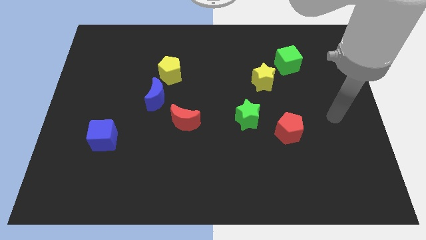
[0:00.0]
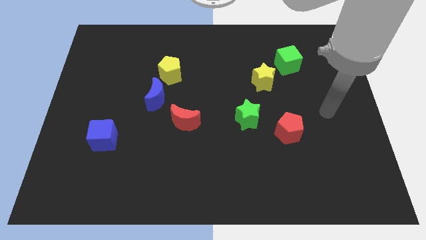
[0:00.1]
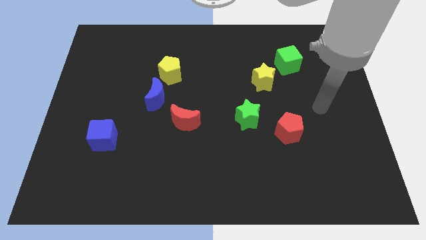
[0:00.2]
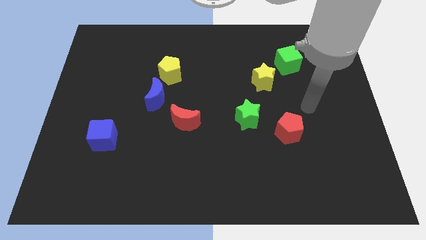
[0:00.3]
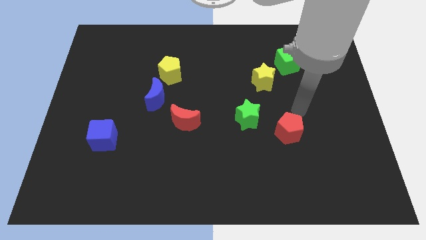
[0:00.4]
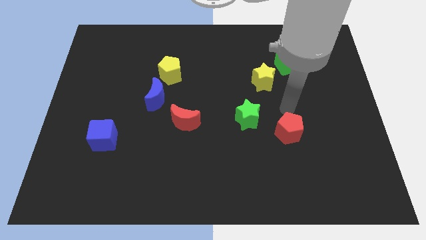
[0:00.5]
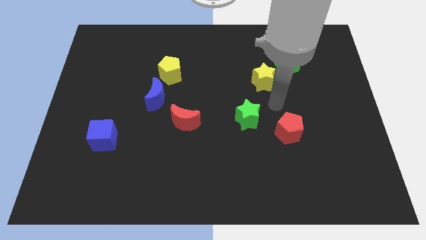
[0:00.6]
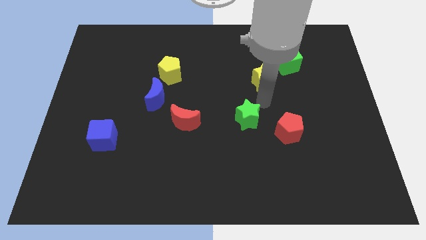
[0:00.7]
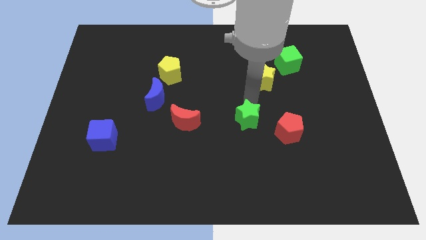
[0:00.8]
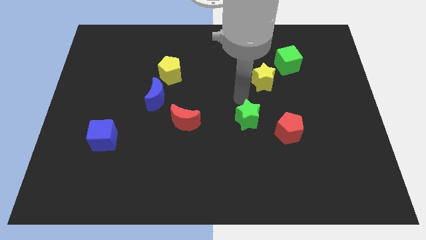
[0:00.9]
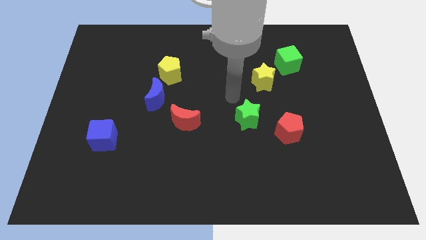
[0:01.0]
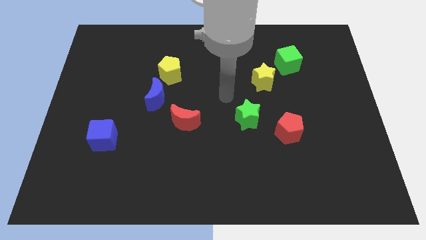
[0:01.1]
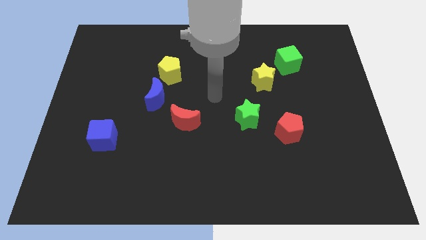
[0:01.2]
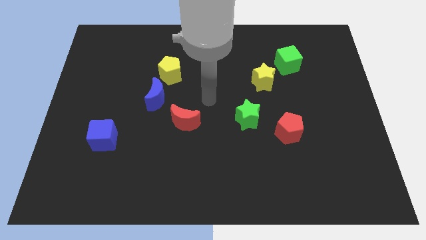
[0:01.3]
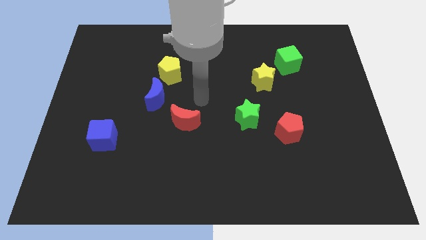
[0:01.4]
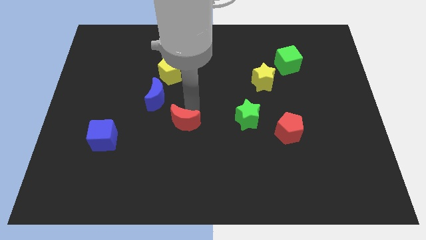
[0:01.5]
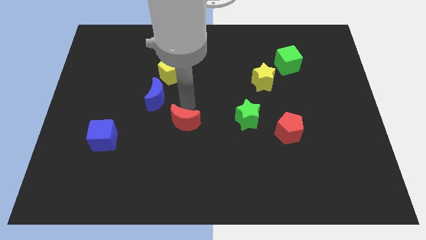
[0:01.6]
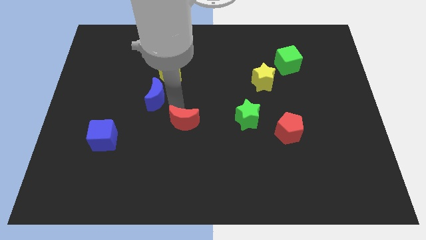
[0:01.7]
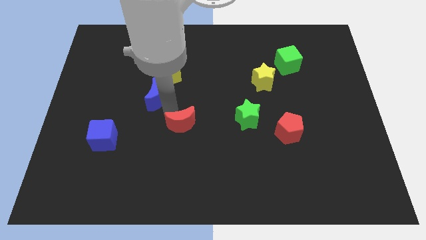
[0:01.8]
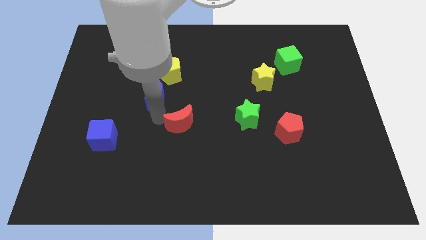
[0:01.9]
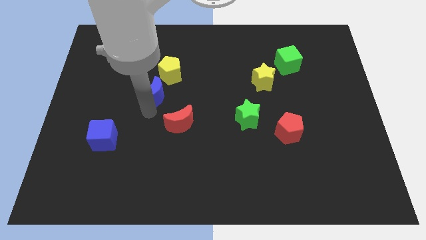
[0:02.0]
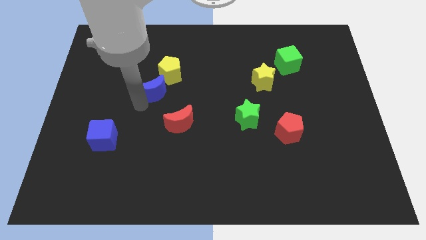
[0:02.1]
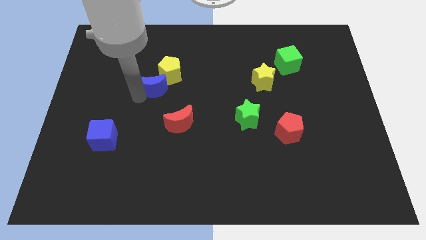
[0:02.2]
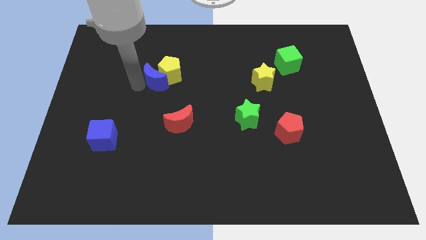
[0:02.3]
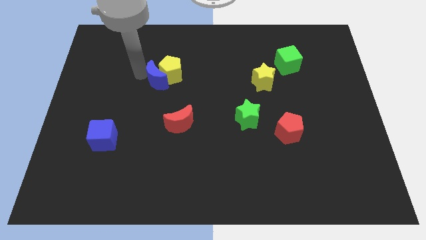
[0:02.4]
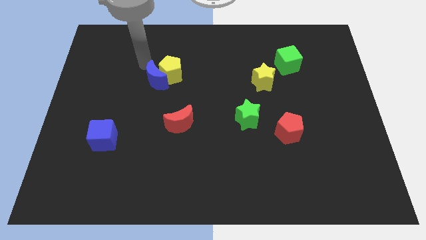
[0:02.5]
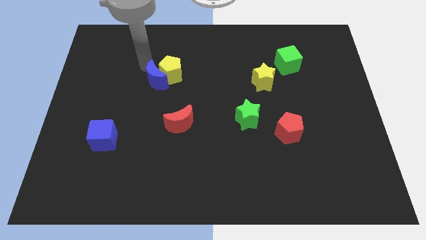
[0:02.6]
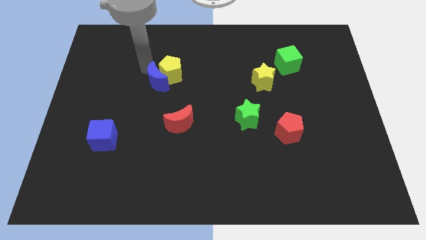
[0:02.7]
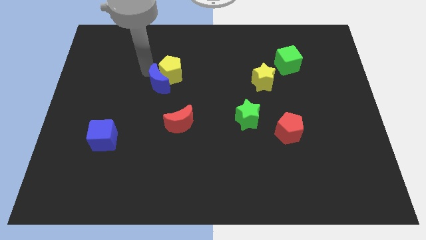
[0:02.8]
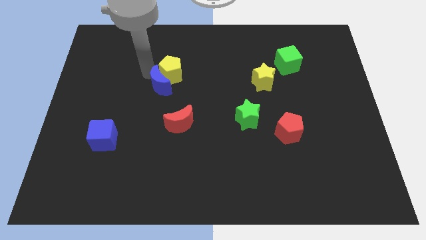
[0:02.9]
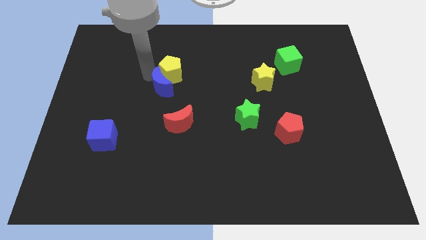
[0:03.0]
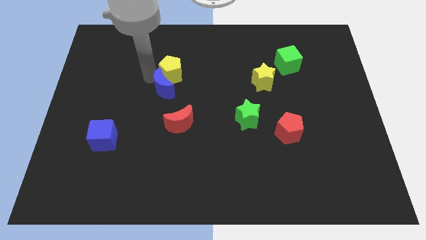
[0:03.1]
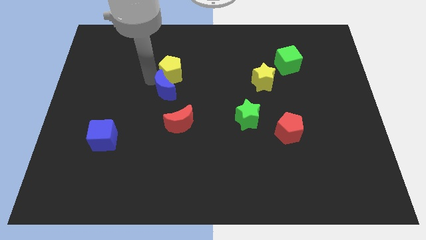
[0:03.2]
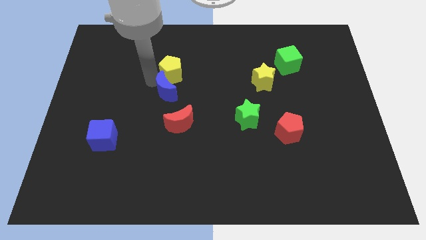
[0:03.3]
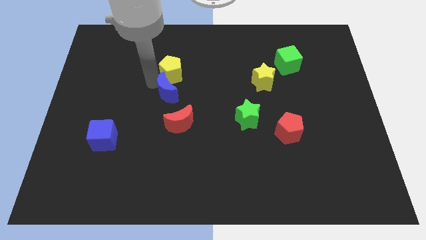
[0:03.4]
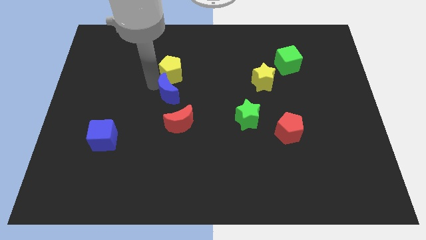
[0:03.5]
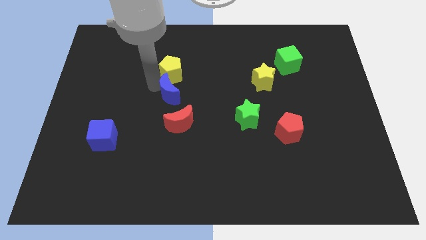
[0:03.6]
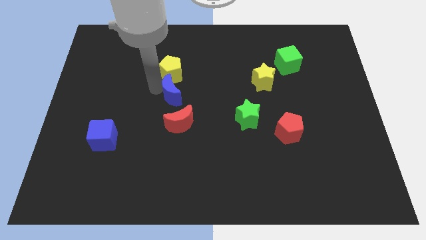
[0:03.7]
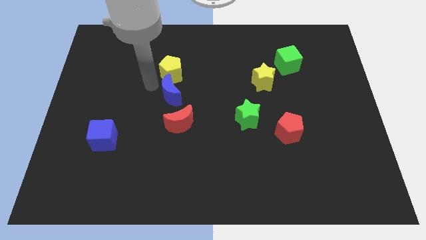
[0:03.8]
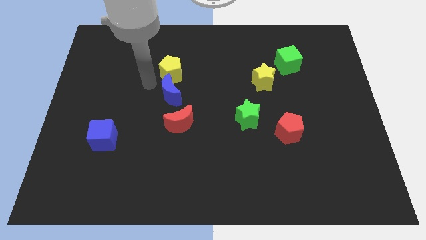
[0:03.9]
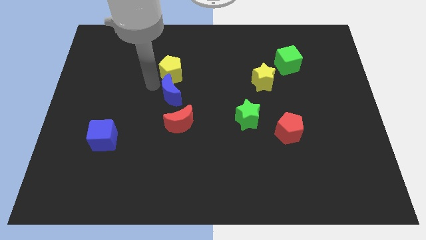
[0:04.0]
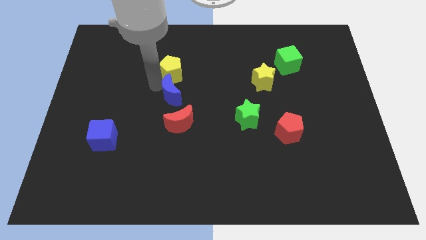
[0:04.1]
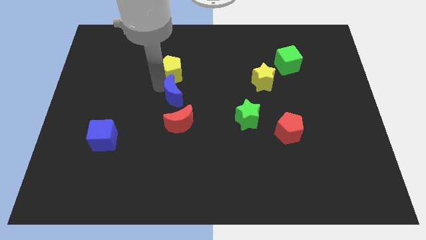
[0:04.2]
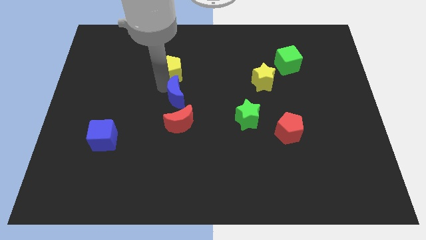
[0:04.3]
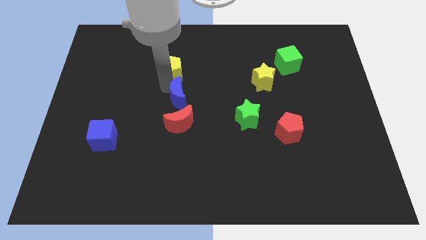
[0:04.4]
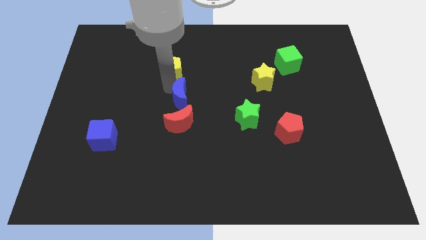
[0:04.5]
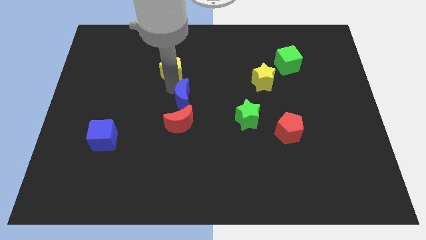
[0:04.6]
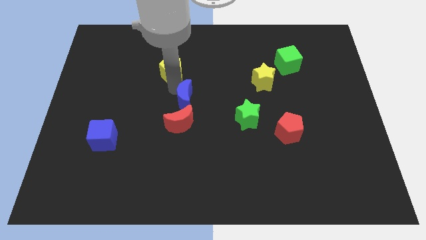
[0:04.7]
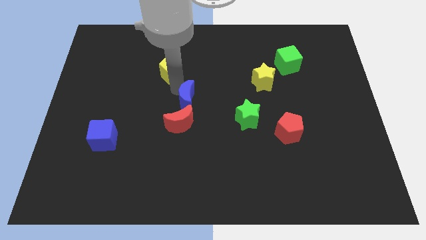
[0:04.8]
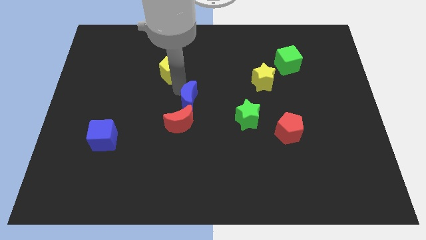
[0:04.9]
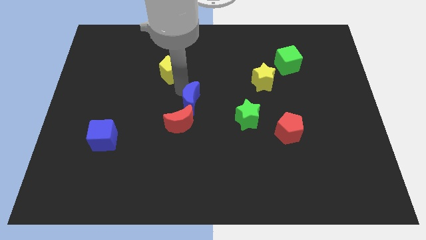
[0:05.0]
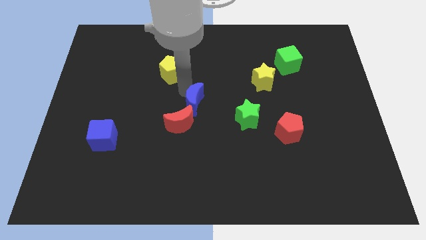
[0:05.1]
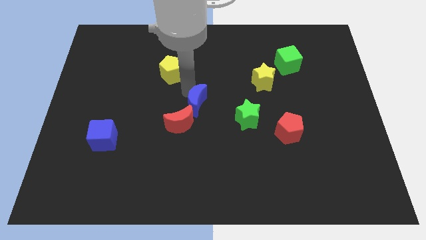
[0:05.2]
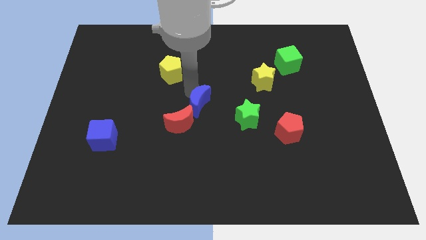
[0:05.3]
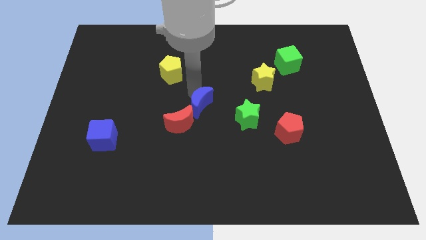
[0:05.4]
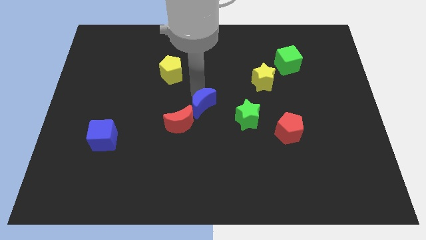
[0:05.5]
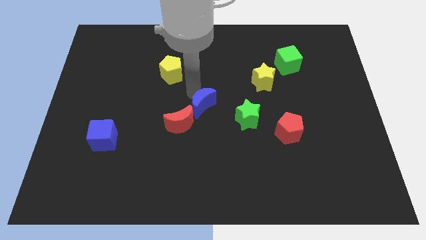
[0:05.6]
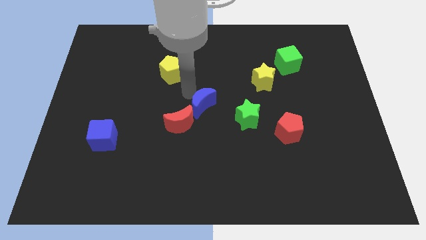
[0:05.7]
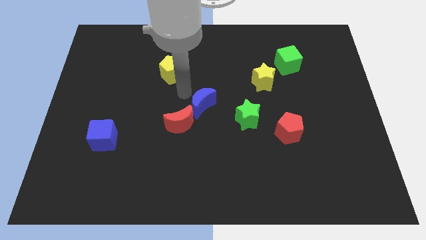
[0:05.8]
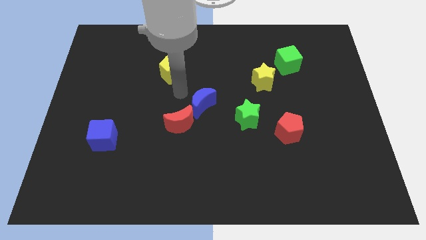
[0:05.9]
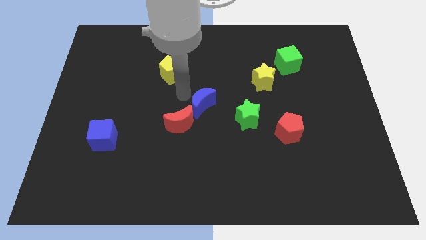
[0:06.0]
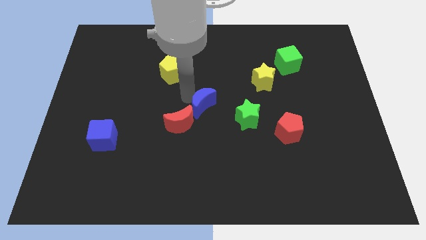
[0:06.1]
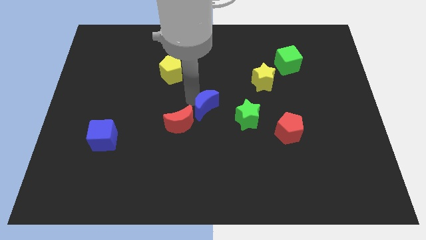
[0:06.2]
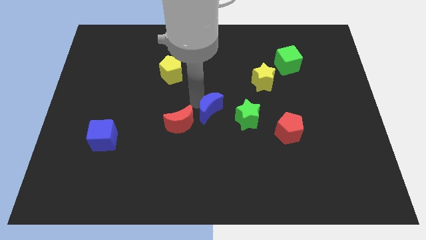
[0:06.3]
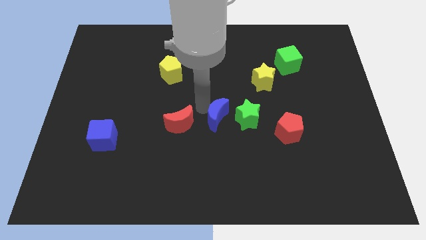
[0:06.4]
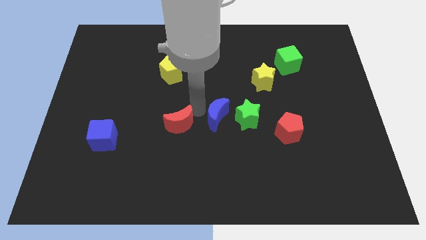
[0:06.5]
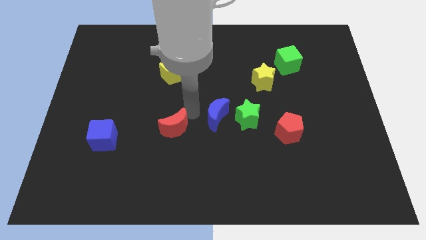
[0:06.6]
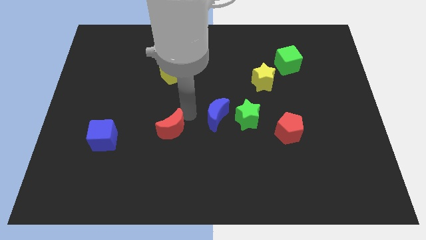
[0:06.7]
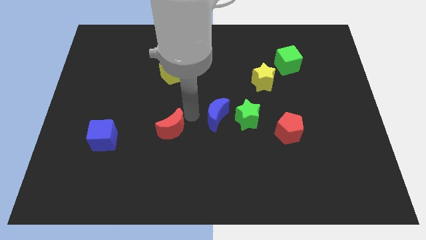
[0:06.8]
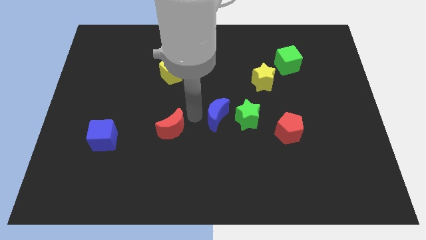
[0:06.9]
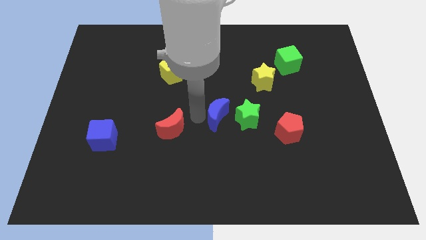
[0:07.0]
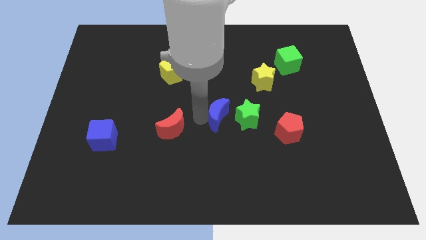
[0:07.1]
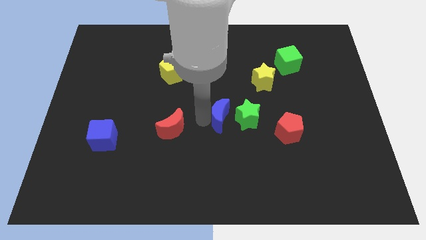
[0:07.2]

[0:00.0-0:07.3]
slide the blue moon close to the green star

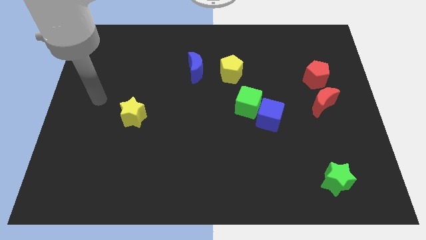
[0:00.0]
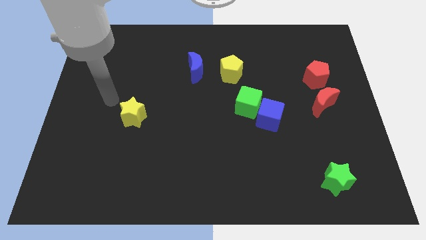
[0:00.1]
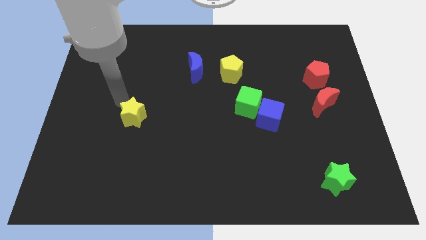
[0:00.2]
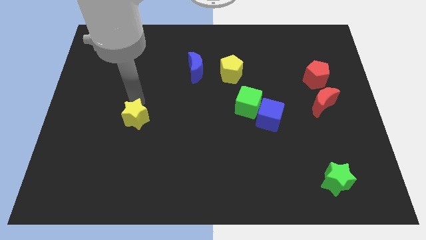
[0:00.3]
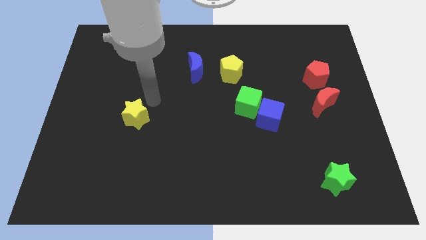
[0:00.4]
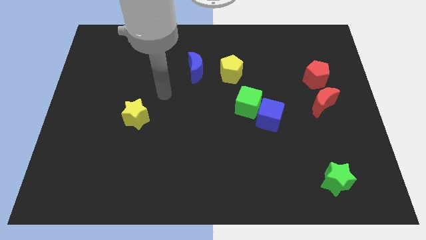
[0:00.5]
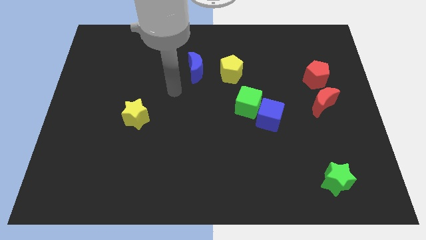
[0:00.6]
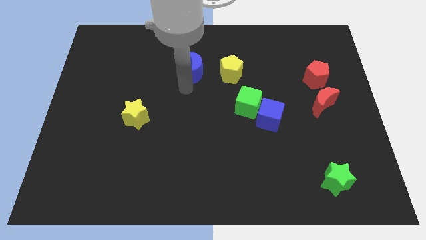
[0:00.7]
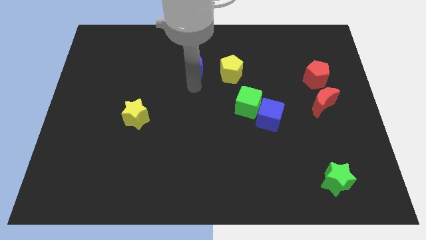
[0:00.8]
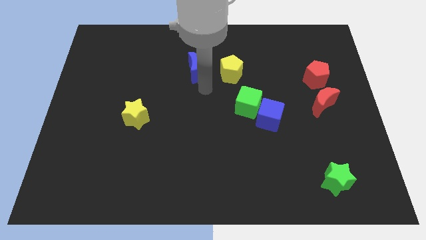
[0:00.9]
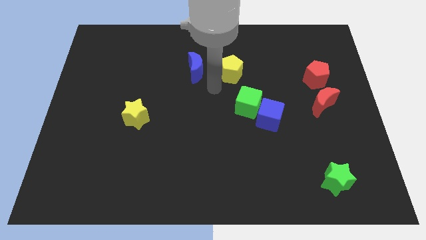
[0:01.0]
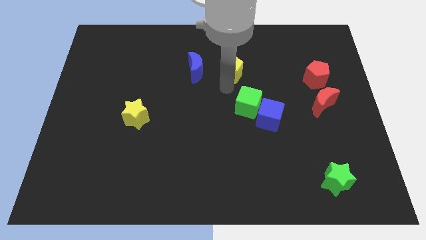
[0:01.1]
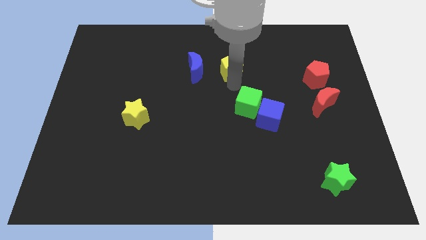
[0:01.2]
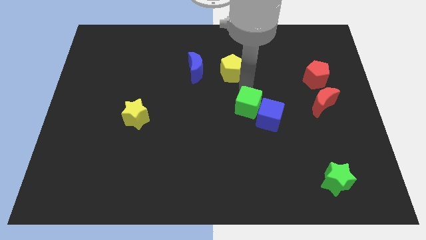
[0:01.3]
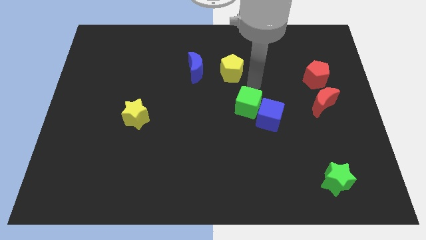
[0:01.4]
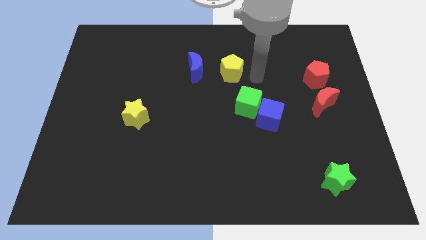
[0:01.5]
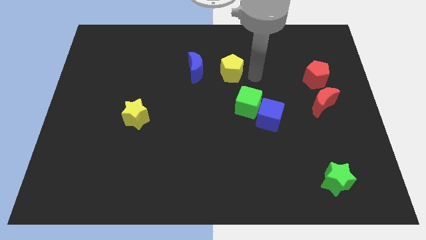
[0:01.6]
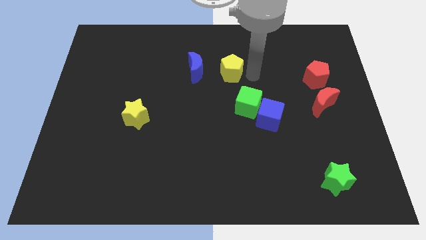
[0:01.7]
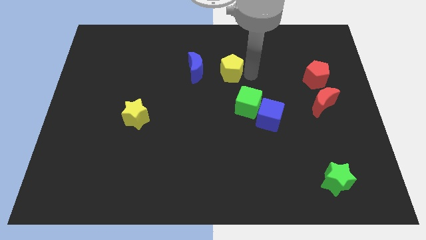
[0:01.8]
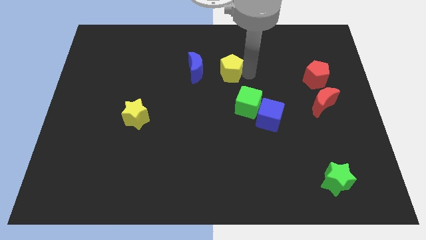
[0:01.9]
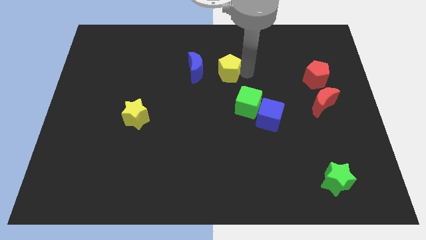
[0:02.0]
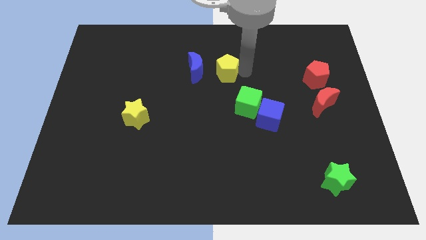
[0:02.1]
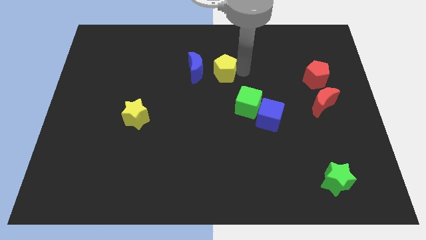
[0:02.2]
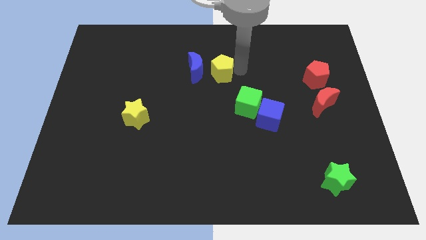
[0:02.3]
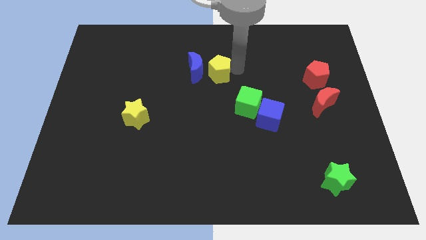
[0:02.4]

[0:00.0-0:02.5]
move the yellow pentagon next to the blue moon
